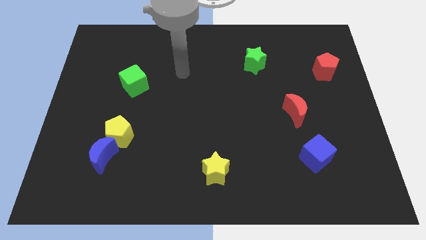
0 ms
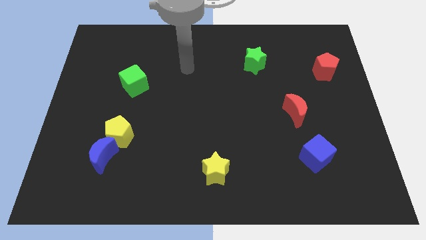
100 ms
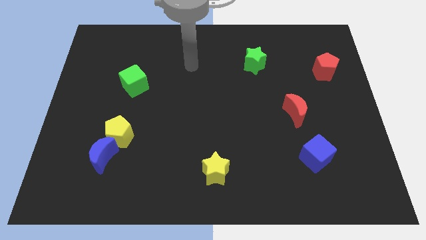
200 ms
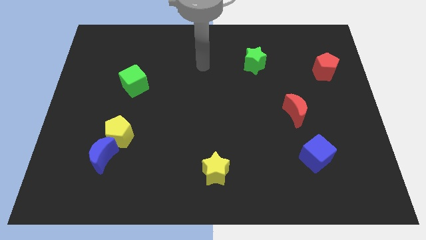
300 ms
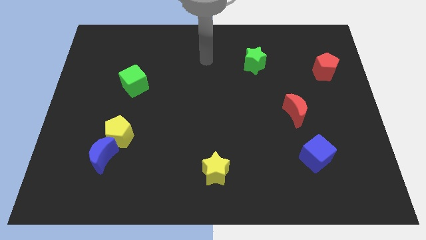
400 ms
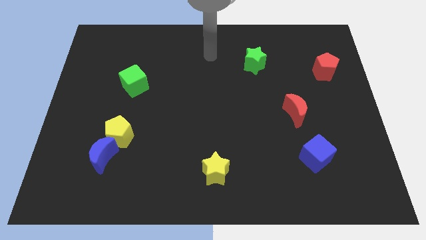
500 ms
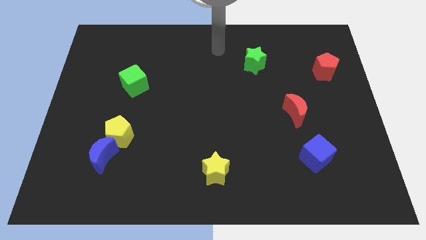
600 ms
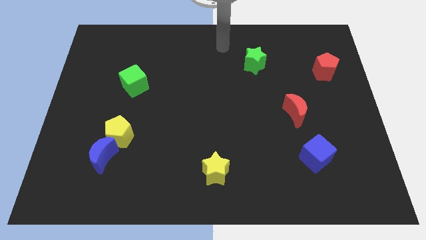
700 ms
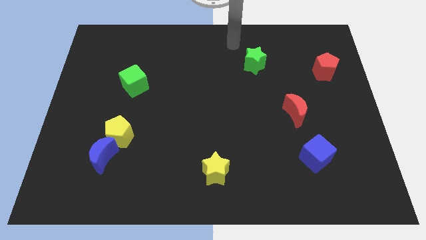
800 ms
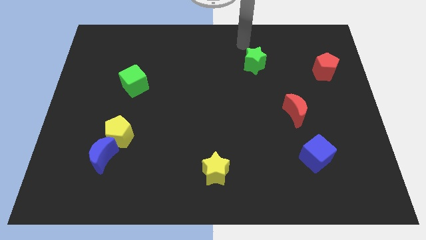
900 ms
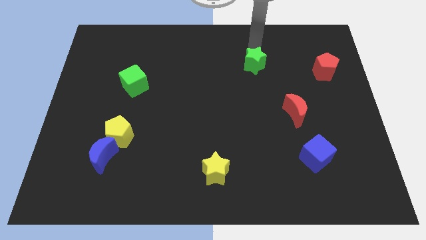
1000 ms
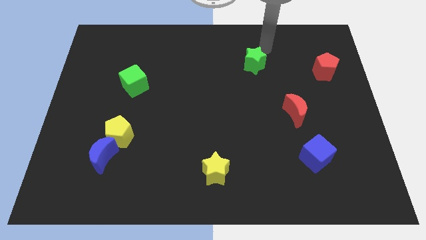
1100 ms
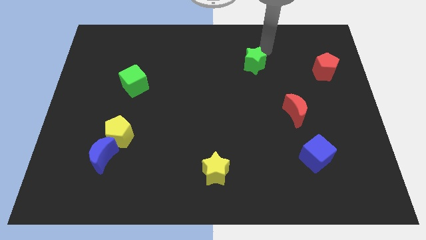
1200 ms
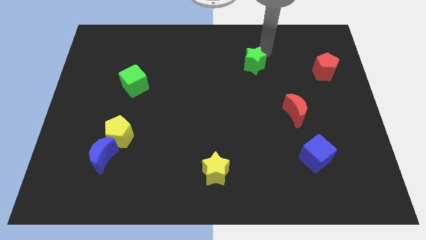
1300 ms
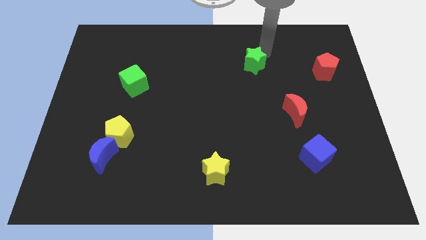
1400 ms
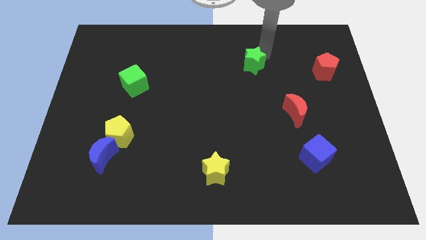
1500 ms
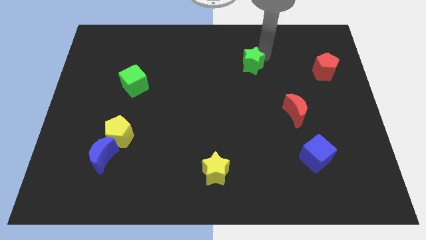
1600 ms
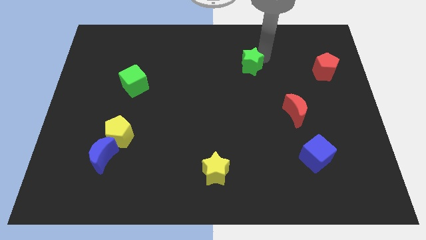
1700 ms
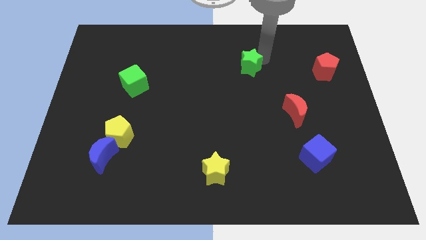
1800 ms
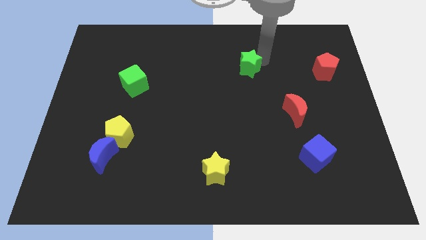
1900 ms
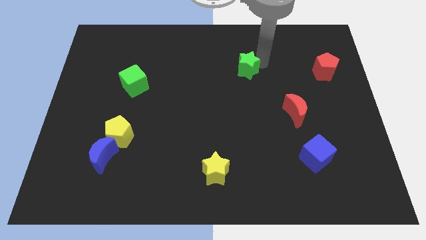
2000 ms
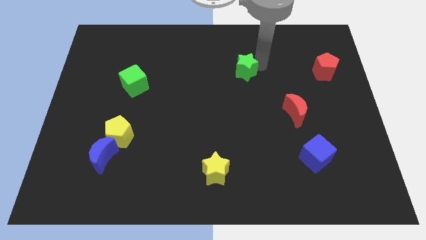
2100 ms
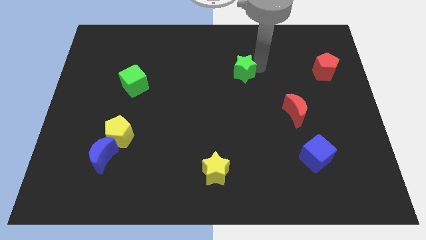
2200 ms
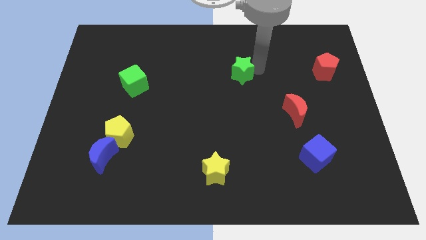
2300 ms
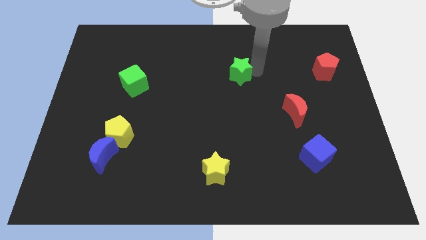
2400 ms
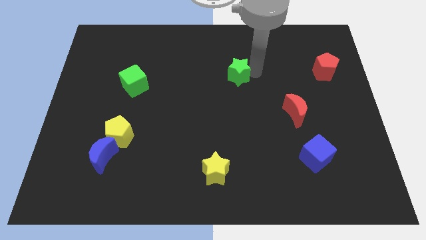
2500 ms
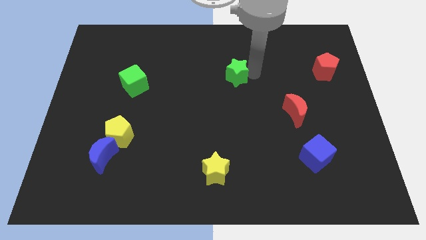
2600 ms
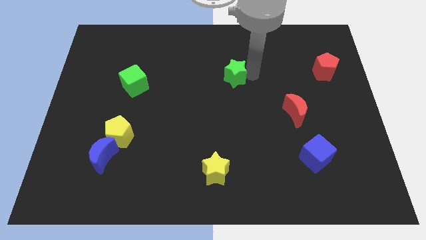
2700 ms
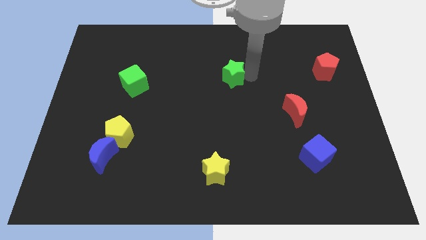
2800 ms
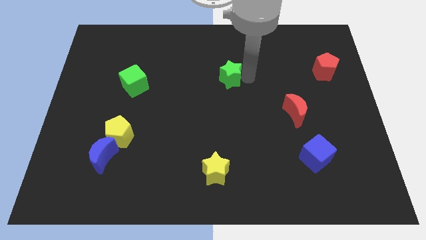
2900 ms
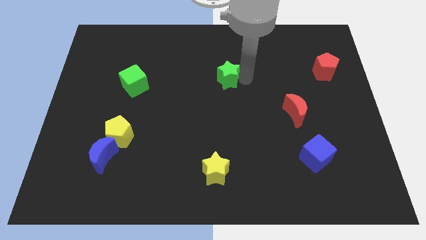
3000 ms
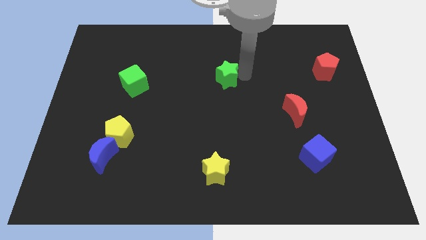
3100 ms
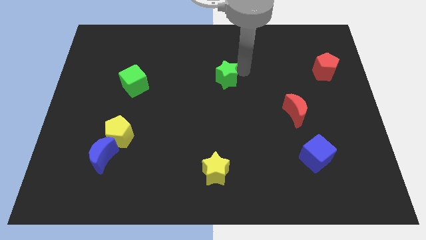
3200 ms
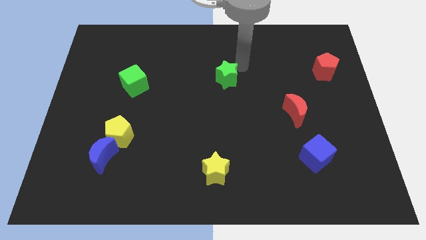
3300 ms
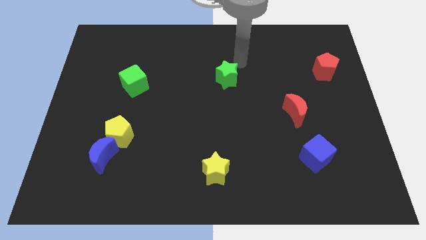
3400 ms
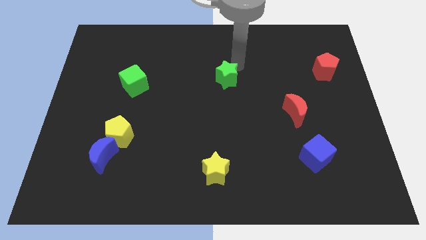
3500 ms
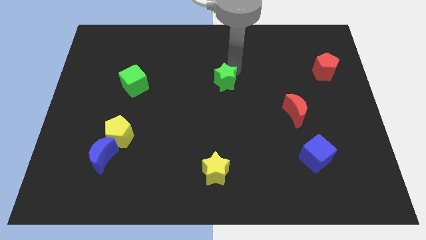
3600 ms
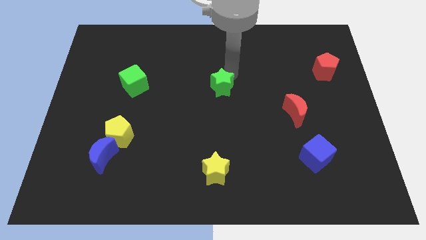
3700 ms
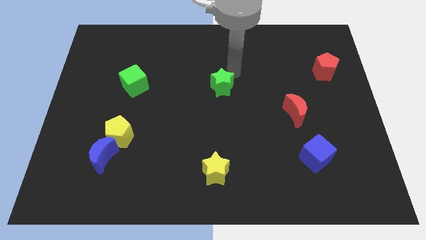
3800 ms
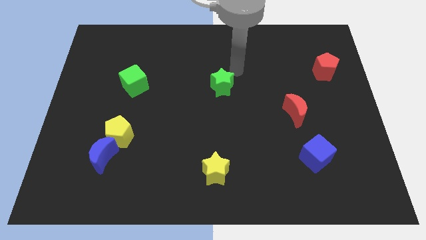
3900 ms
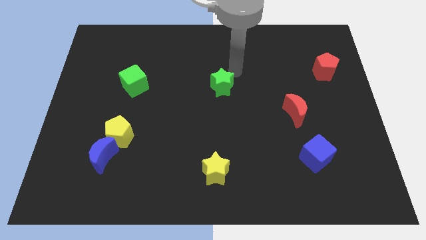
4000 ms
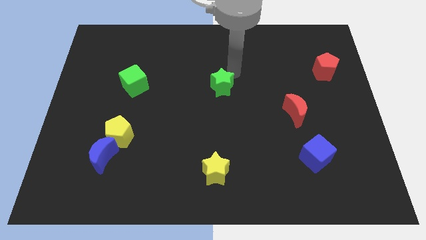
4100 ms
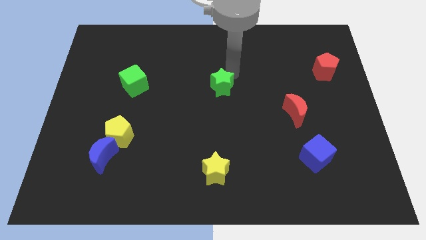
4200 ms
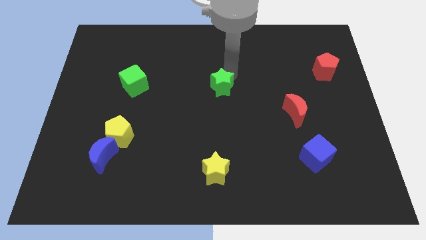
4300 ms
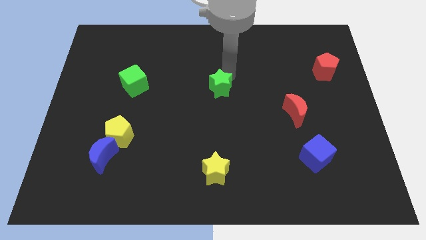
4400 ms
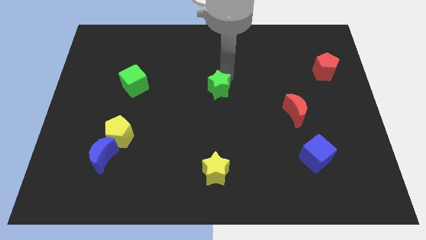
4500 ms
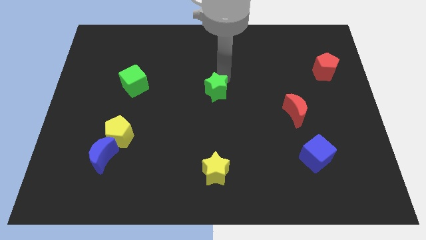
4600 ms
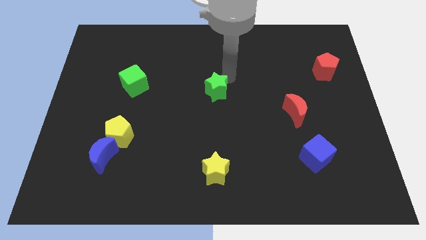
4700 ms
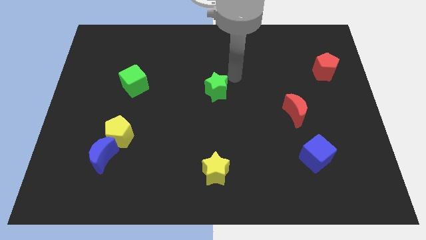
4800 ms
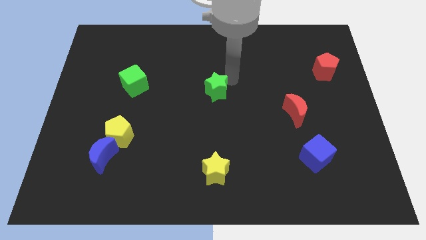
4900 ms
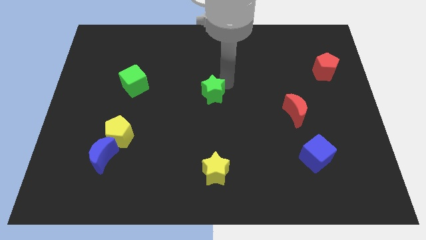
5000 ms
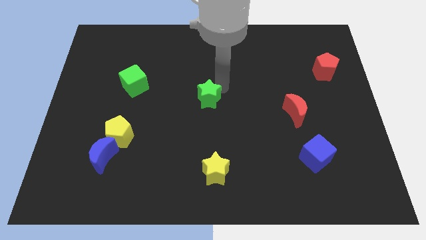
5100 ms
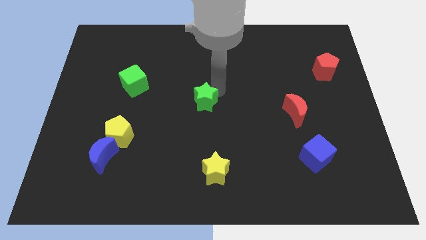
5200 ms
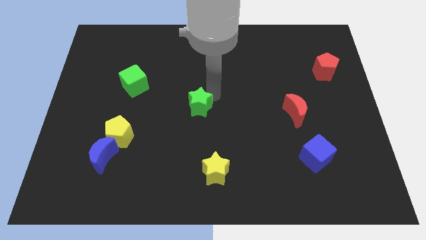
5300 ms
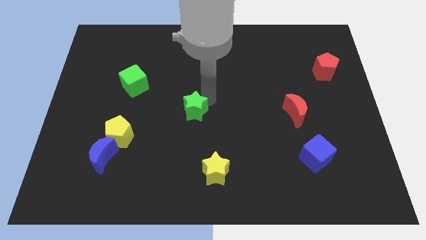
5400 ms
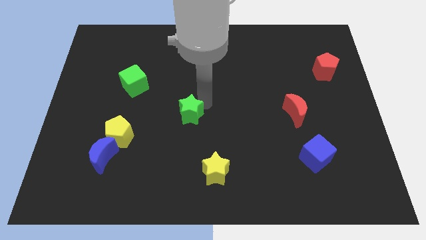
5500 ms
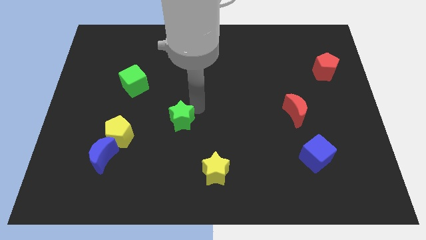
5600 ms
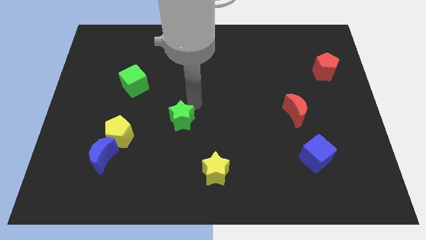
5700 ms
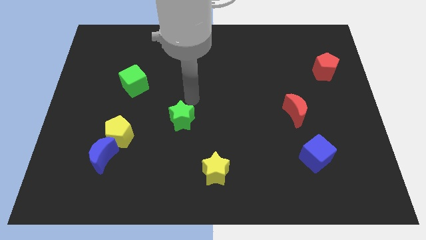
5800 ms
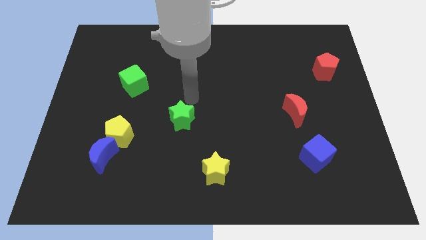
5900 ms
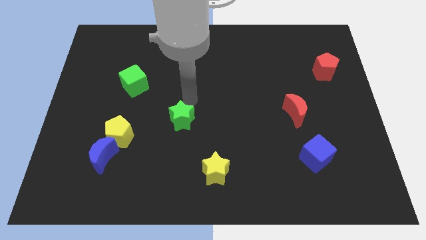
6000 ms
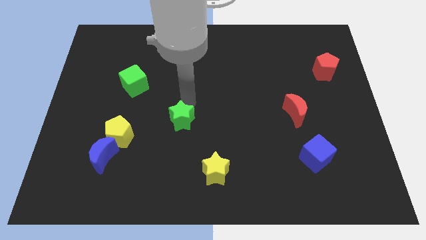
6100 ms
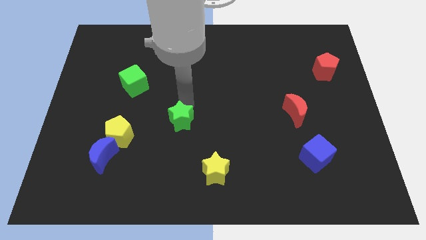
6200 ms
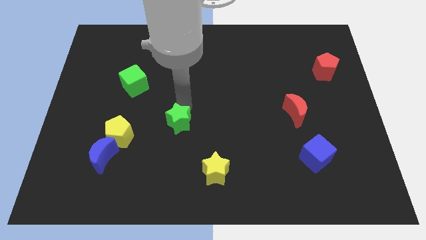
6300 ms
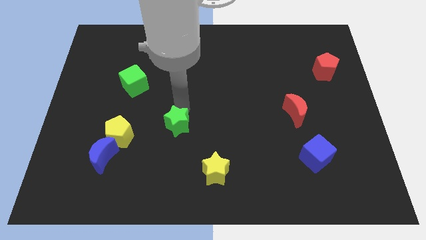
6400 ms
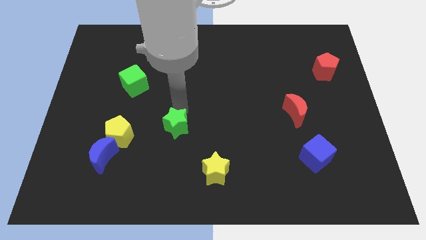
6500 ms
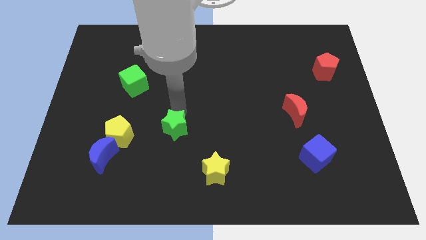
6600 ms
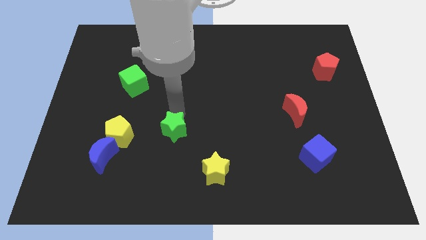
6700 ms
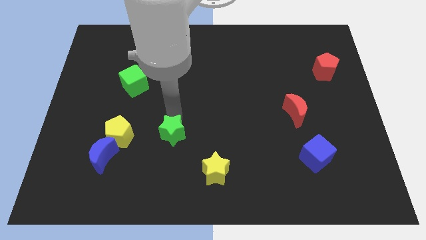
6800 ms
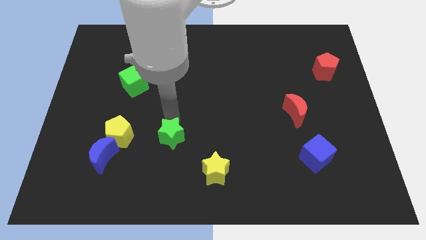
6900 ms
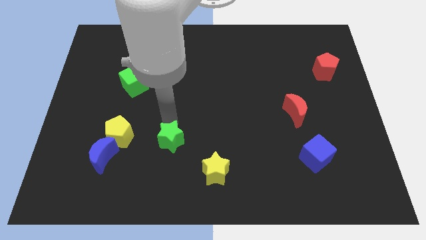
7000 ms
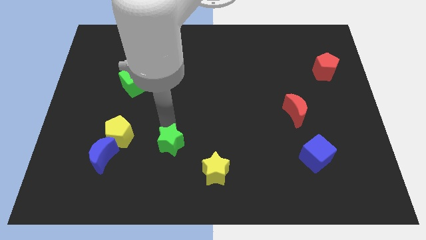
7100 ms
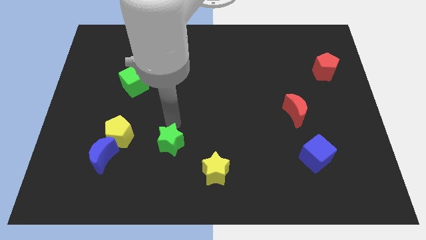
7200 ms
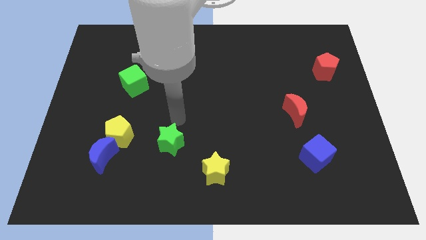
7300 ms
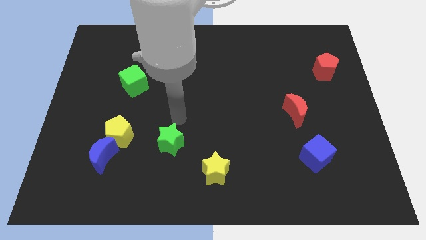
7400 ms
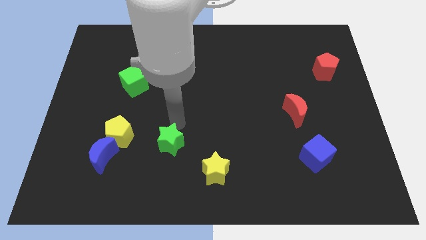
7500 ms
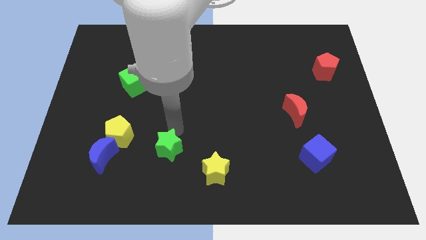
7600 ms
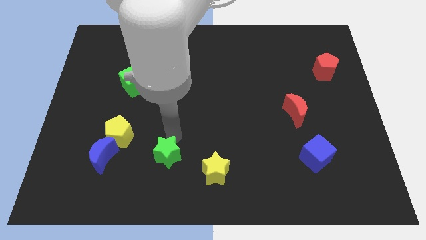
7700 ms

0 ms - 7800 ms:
move the green star to the left side of the yellow star
